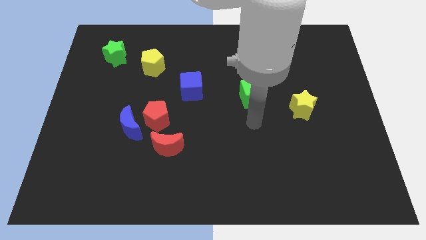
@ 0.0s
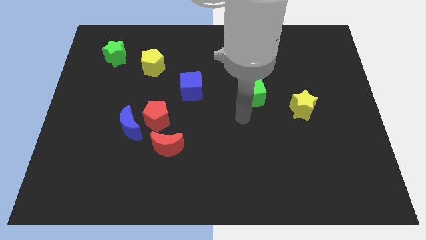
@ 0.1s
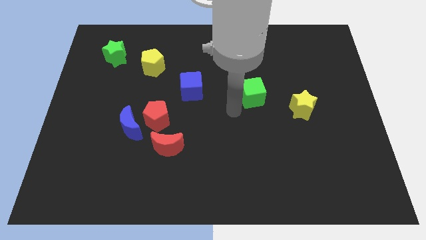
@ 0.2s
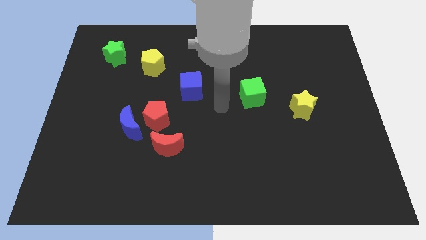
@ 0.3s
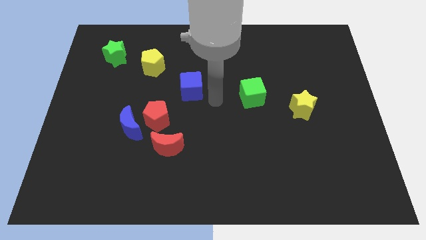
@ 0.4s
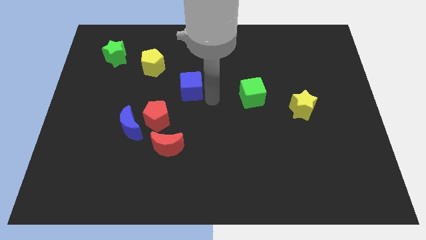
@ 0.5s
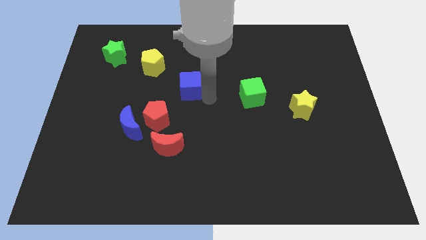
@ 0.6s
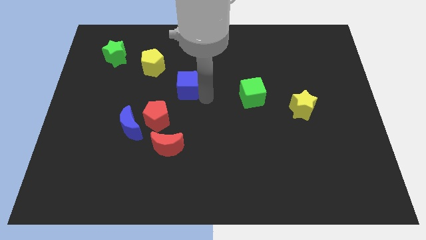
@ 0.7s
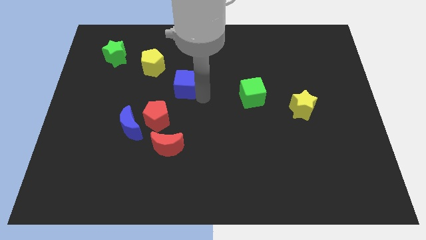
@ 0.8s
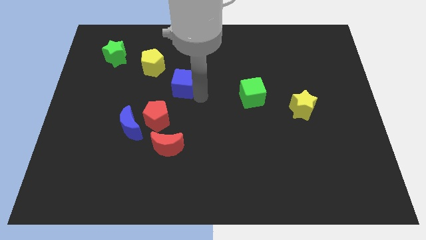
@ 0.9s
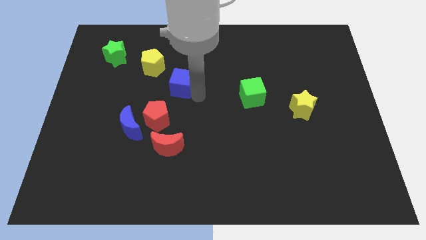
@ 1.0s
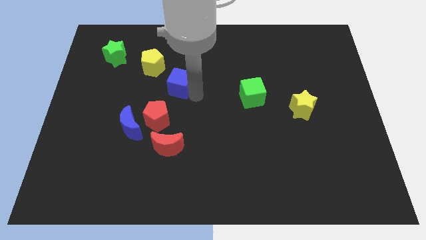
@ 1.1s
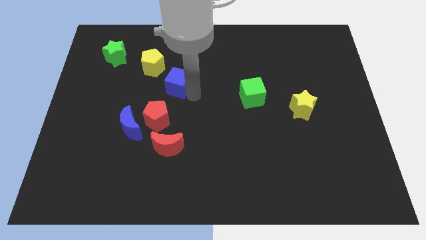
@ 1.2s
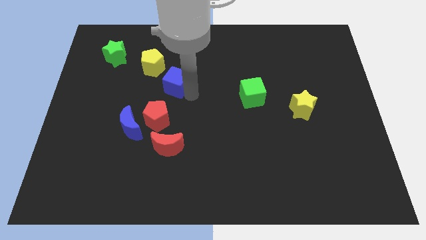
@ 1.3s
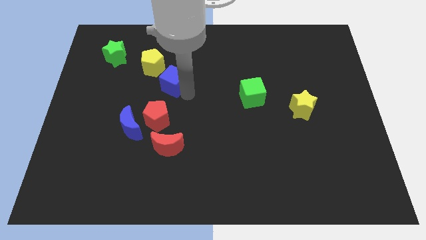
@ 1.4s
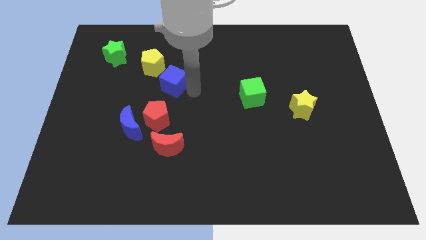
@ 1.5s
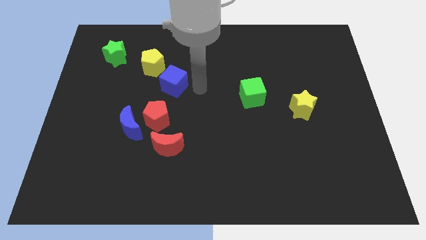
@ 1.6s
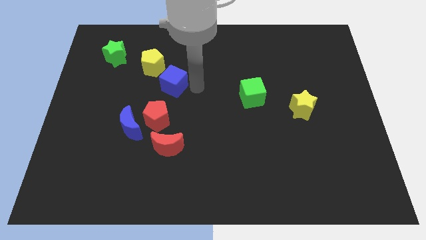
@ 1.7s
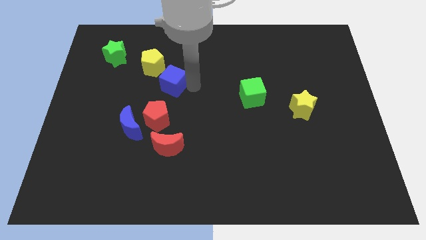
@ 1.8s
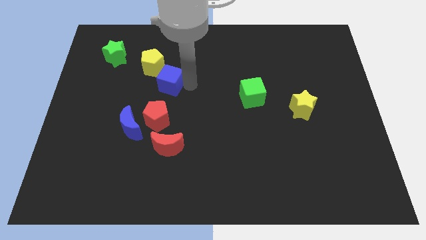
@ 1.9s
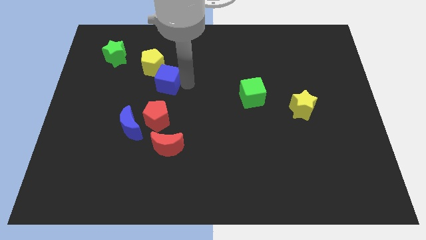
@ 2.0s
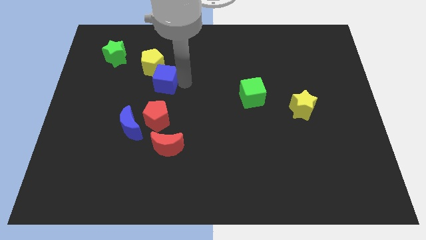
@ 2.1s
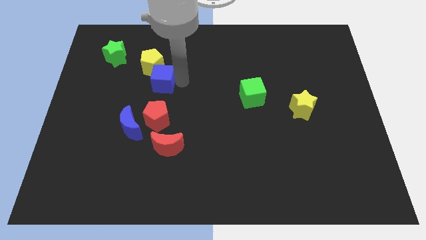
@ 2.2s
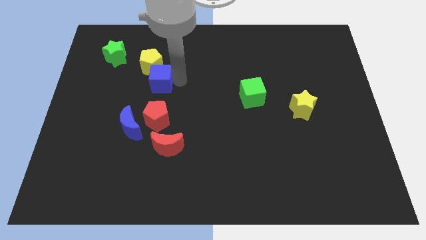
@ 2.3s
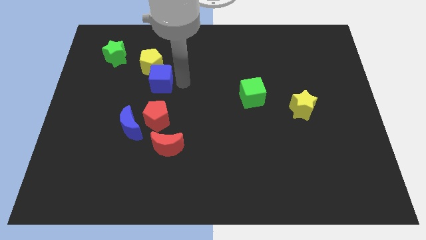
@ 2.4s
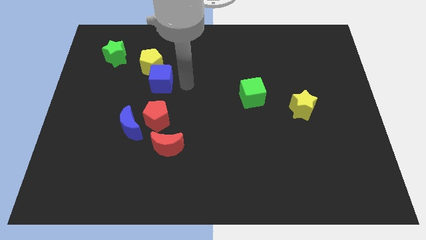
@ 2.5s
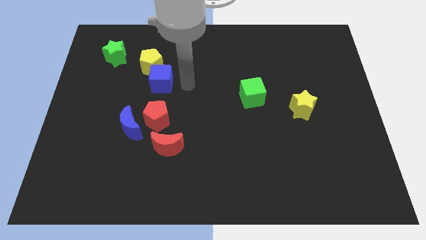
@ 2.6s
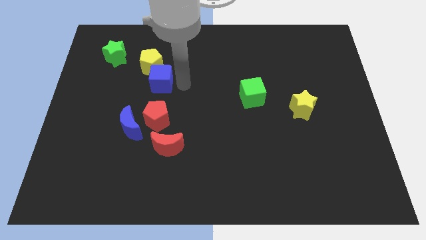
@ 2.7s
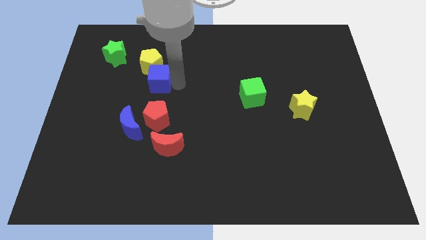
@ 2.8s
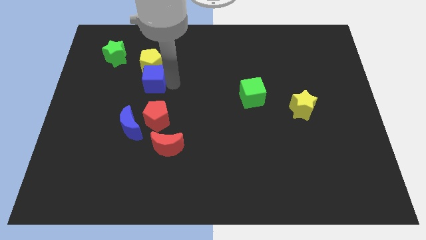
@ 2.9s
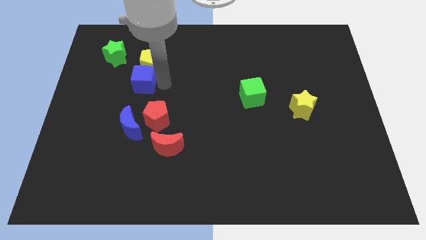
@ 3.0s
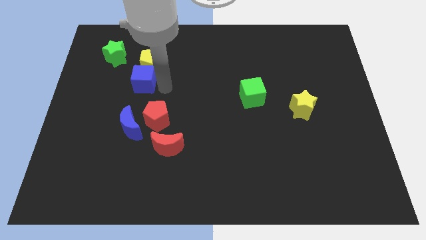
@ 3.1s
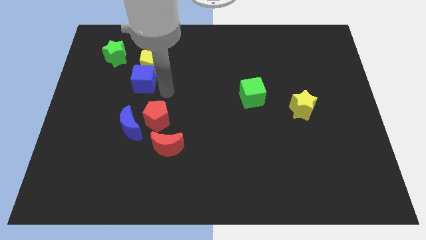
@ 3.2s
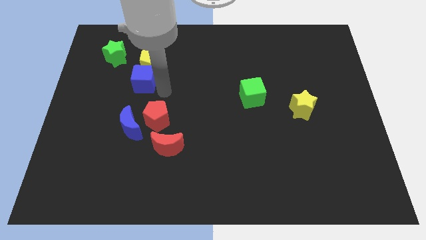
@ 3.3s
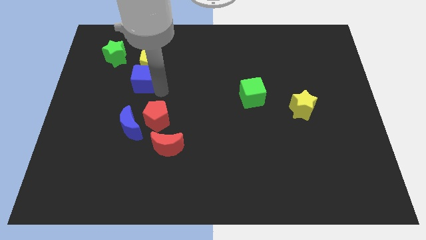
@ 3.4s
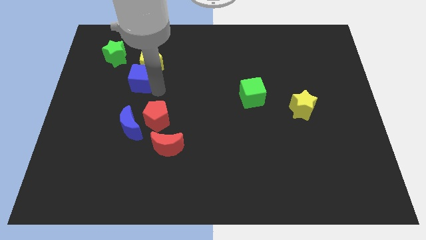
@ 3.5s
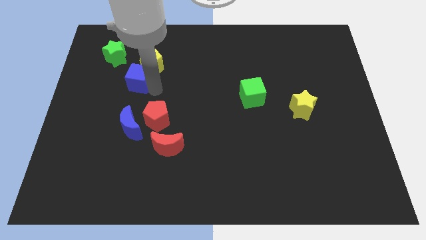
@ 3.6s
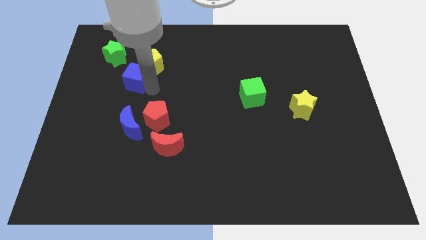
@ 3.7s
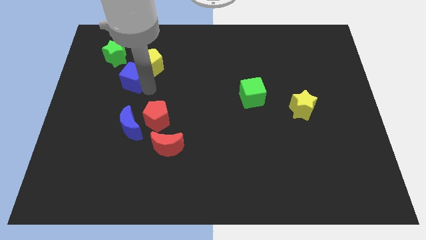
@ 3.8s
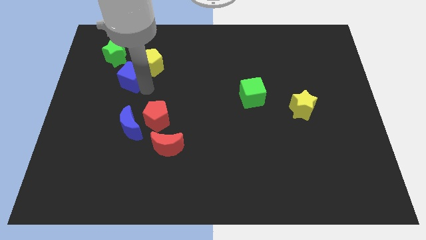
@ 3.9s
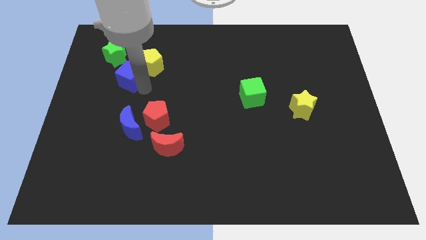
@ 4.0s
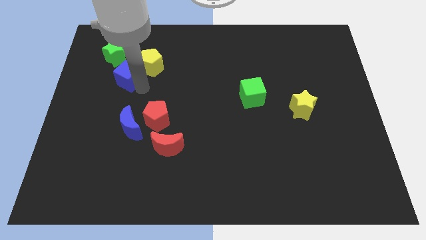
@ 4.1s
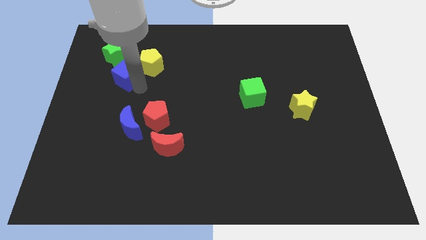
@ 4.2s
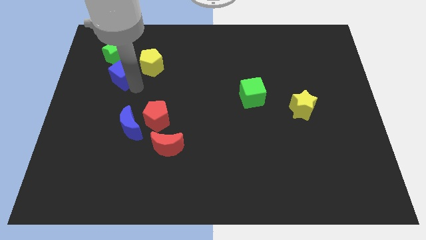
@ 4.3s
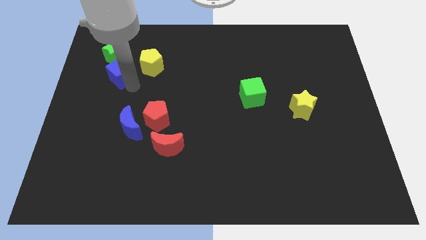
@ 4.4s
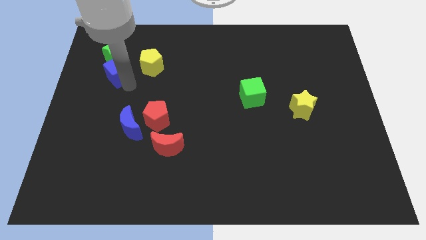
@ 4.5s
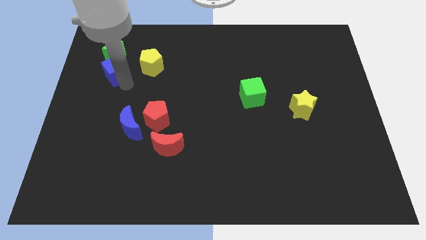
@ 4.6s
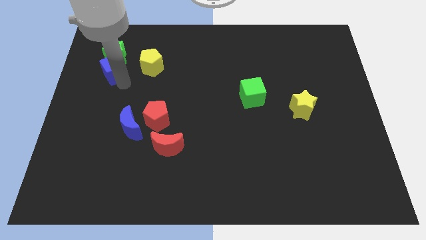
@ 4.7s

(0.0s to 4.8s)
move the blue cube next to the green star

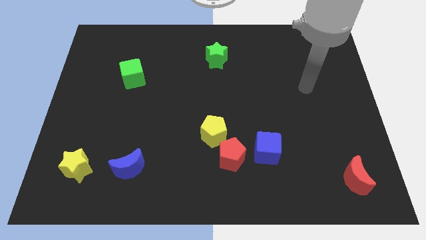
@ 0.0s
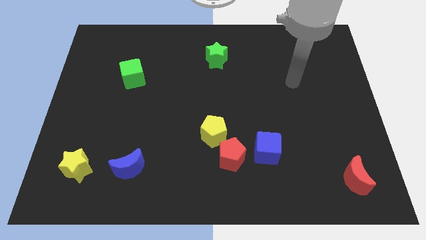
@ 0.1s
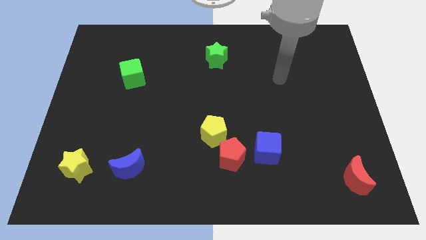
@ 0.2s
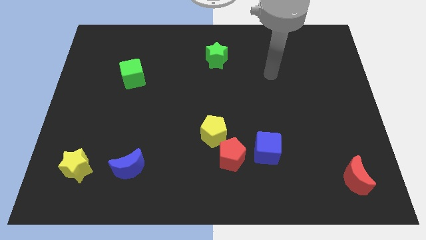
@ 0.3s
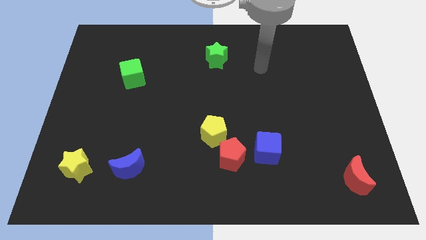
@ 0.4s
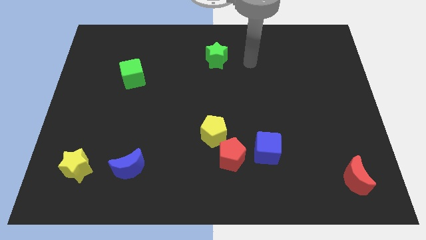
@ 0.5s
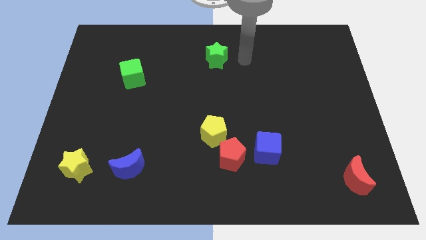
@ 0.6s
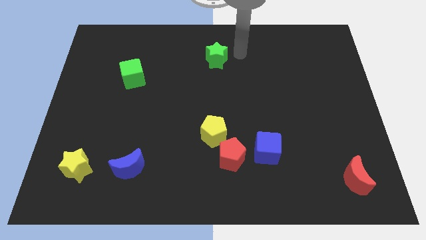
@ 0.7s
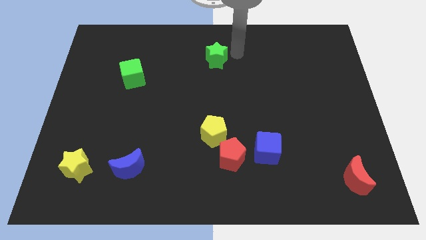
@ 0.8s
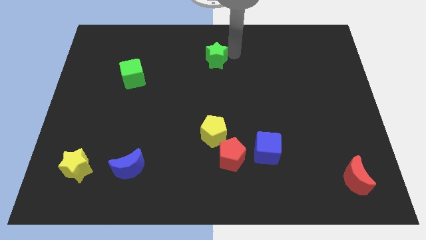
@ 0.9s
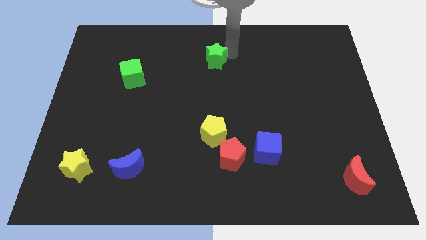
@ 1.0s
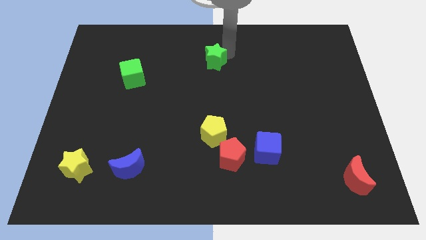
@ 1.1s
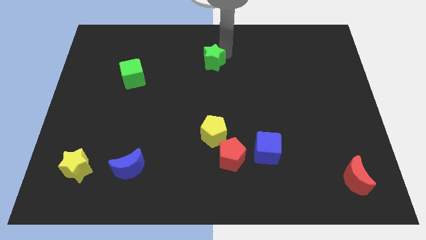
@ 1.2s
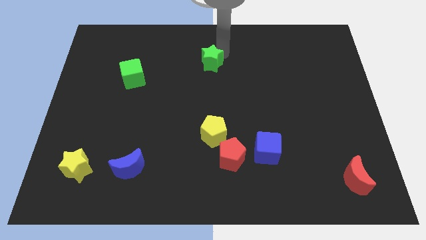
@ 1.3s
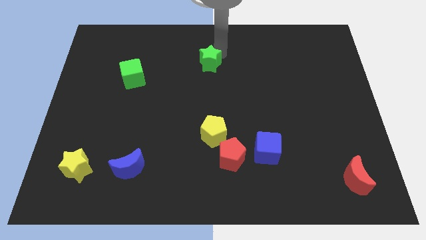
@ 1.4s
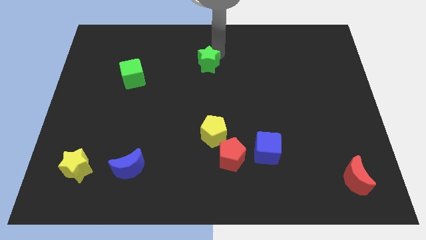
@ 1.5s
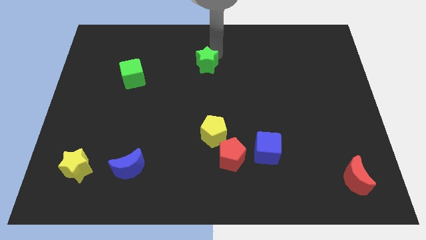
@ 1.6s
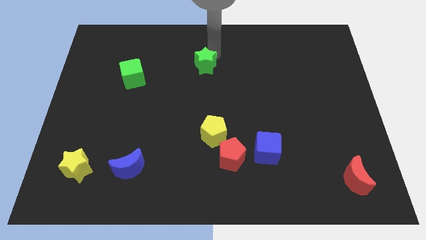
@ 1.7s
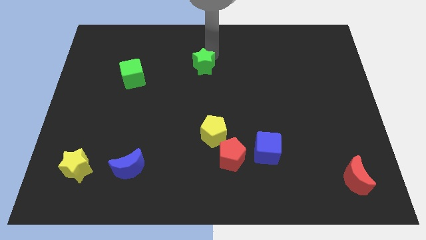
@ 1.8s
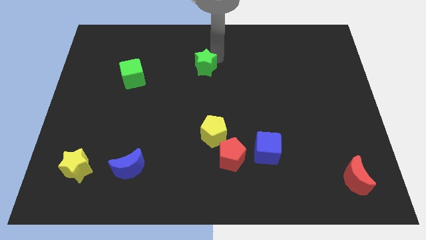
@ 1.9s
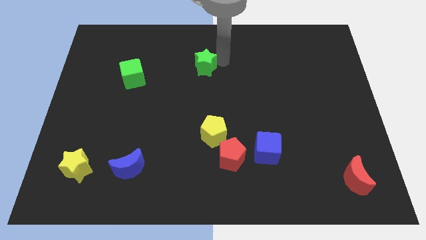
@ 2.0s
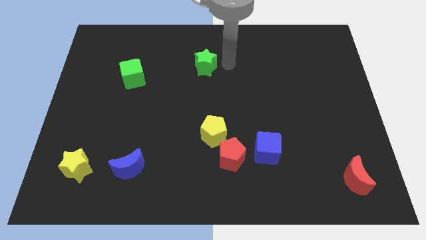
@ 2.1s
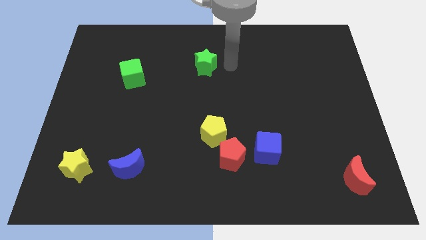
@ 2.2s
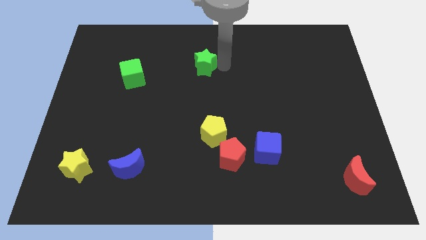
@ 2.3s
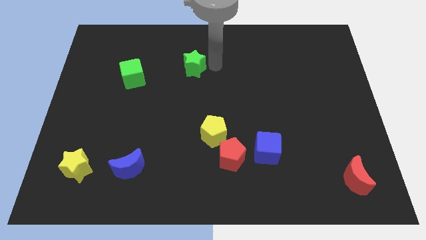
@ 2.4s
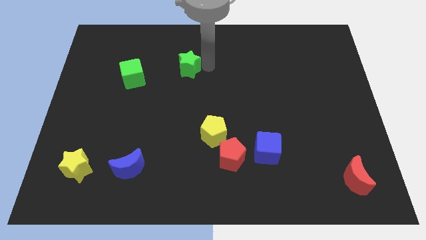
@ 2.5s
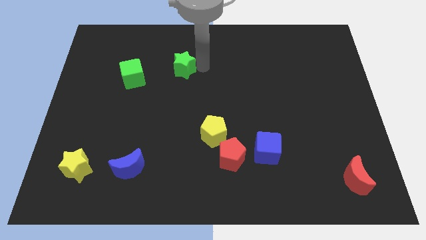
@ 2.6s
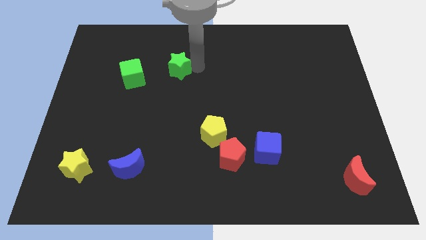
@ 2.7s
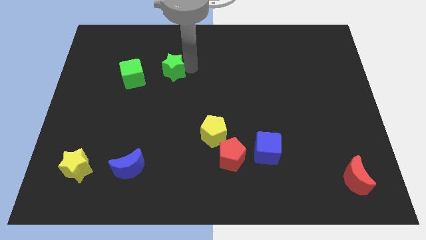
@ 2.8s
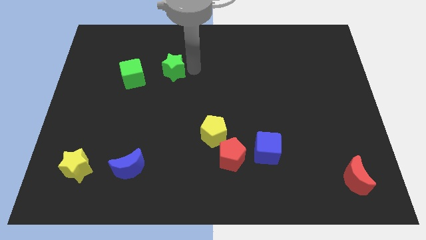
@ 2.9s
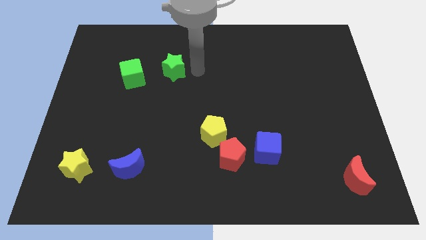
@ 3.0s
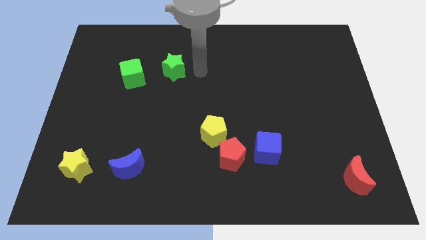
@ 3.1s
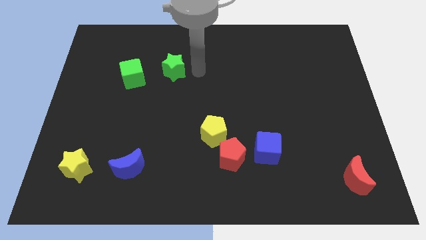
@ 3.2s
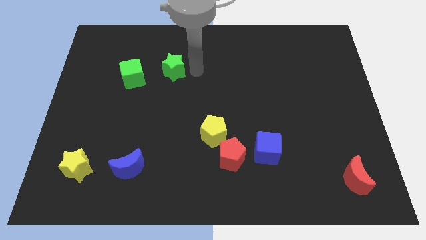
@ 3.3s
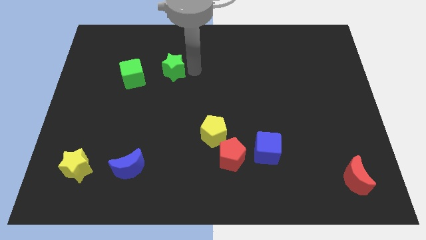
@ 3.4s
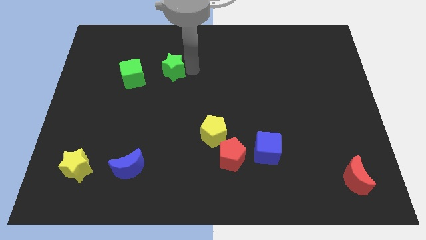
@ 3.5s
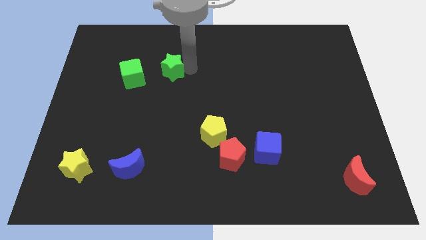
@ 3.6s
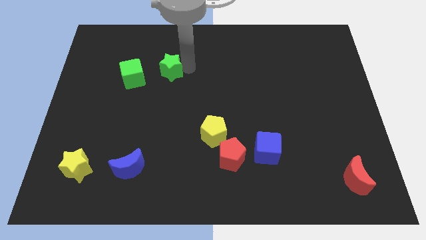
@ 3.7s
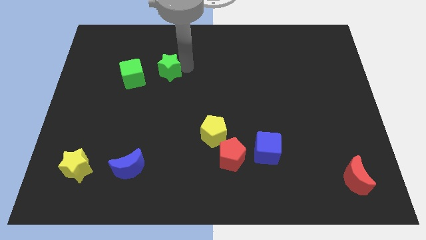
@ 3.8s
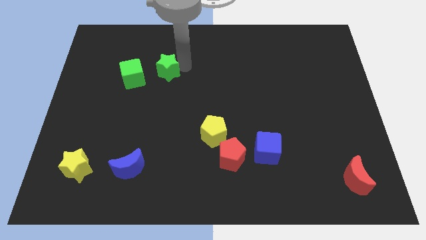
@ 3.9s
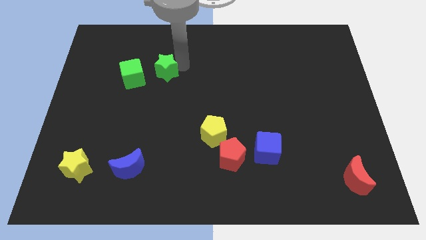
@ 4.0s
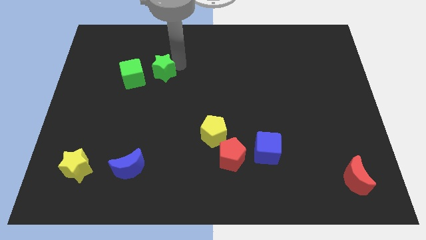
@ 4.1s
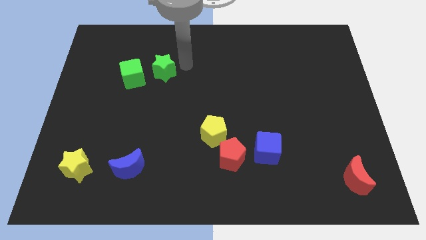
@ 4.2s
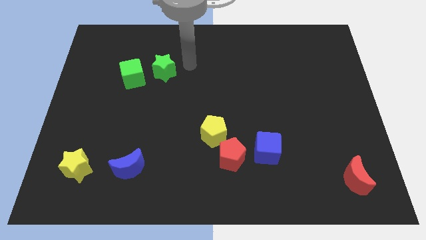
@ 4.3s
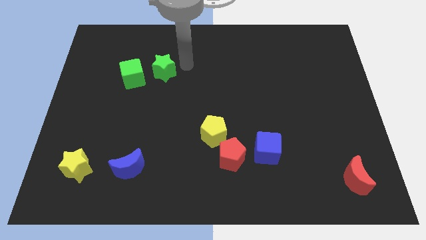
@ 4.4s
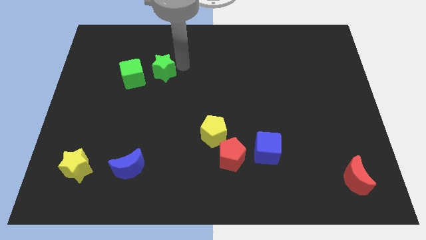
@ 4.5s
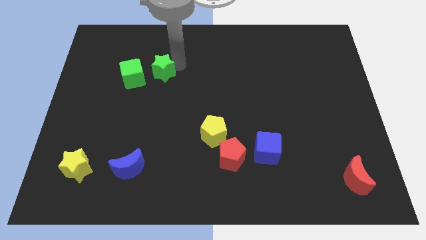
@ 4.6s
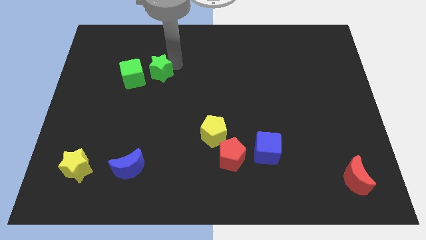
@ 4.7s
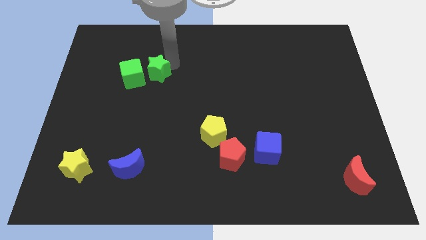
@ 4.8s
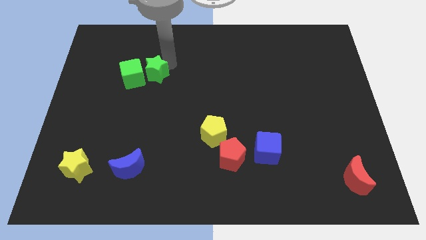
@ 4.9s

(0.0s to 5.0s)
put the green star close to the green cube
